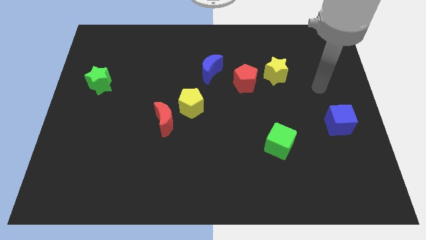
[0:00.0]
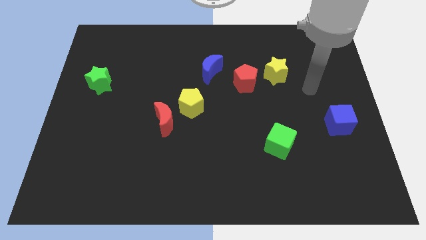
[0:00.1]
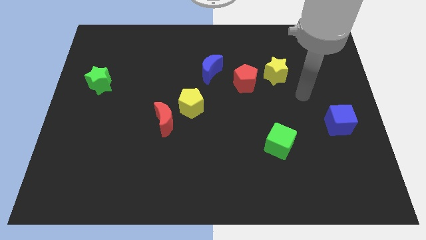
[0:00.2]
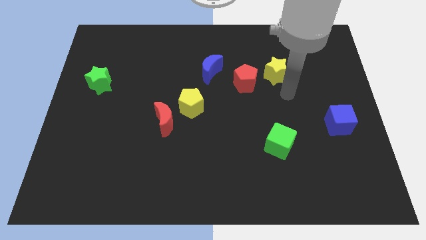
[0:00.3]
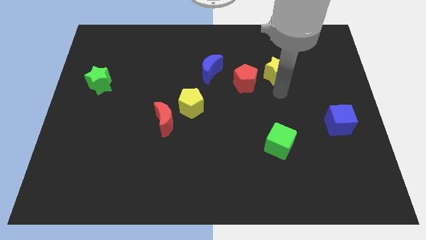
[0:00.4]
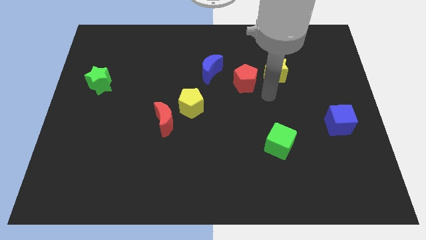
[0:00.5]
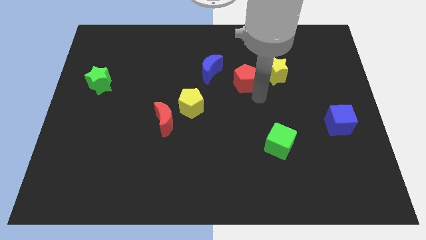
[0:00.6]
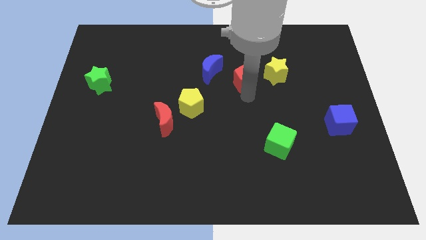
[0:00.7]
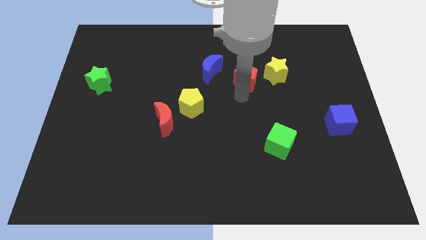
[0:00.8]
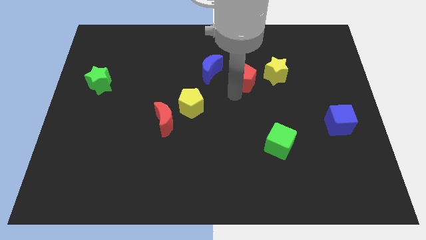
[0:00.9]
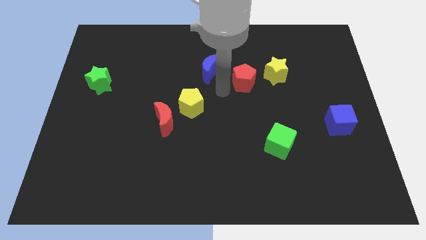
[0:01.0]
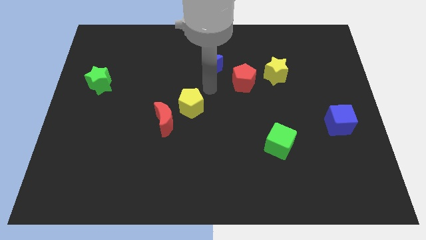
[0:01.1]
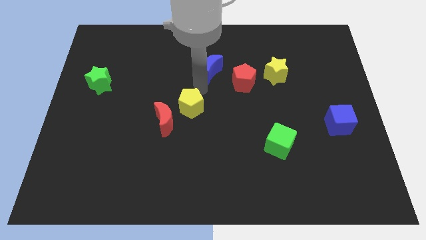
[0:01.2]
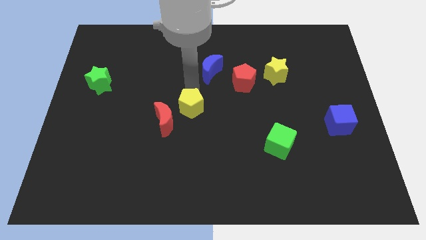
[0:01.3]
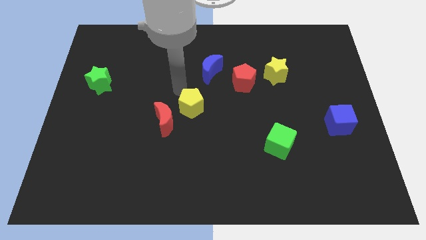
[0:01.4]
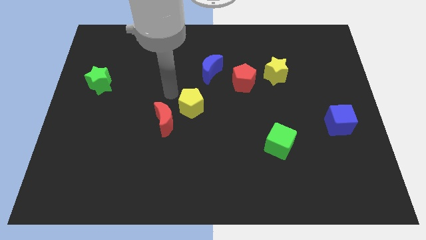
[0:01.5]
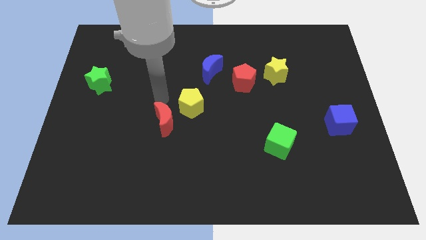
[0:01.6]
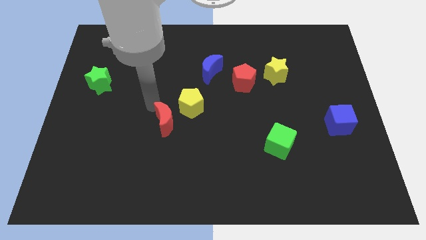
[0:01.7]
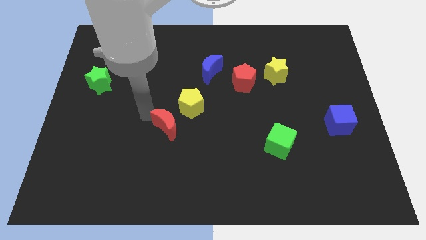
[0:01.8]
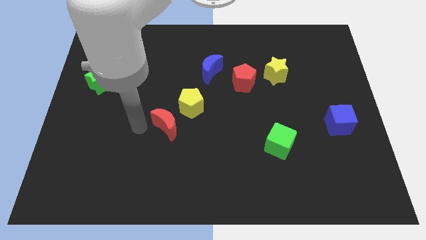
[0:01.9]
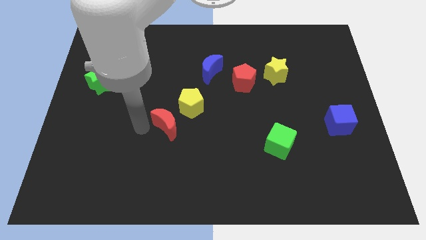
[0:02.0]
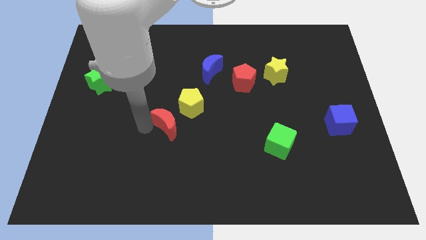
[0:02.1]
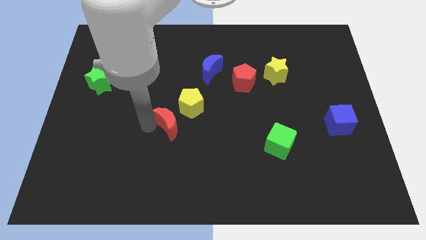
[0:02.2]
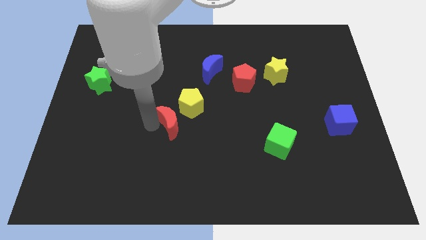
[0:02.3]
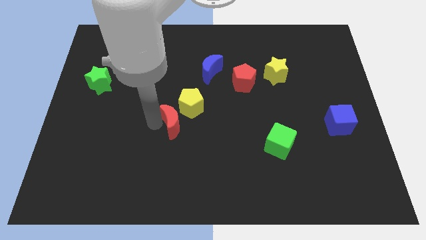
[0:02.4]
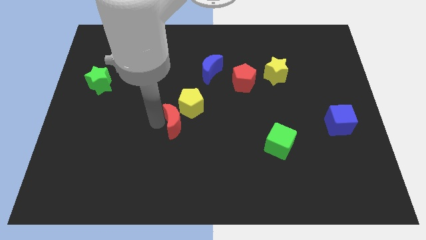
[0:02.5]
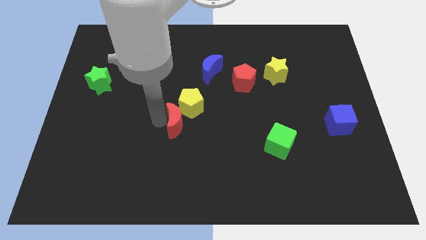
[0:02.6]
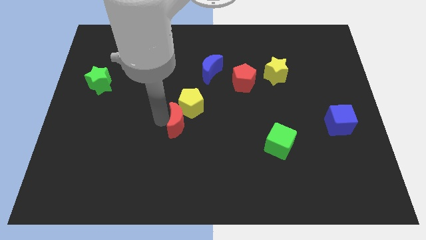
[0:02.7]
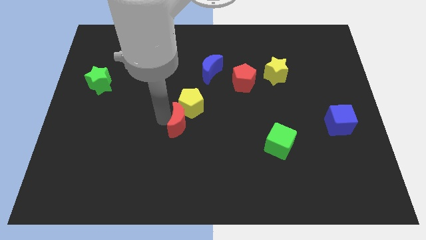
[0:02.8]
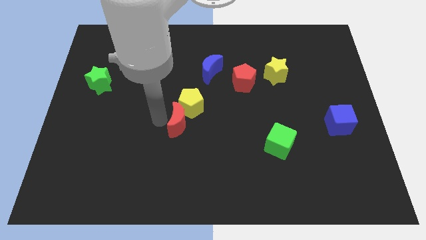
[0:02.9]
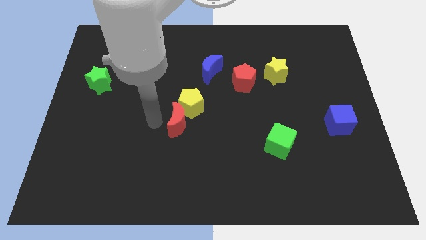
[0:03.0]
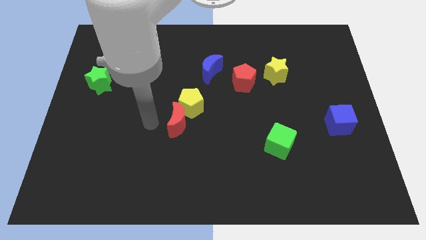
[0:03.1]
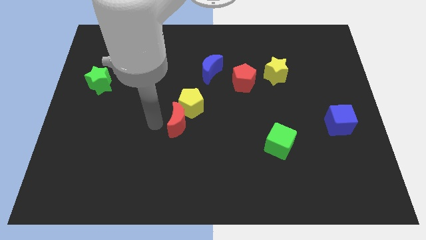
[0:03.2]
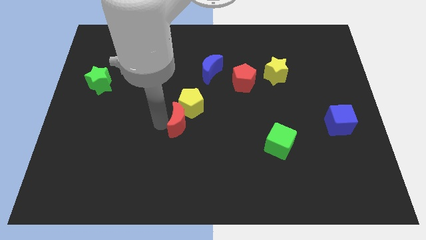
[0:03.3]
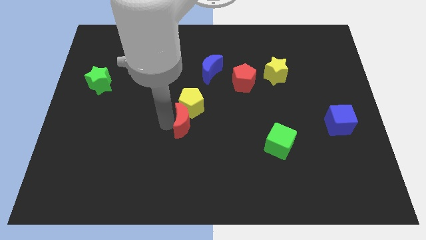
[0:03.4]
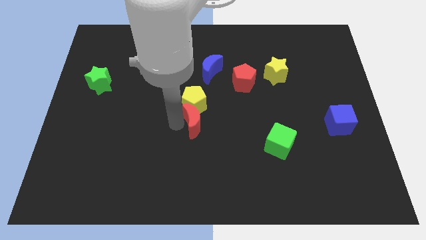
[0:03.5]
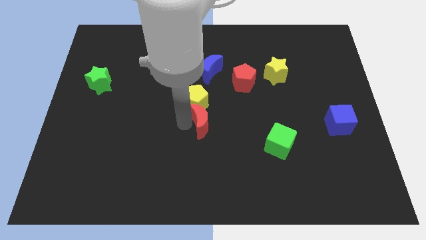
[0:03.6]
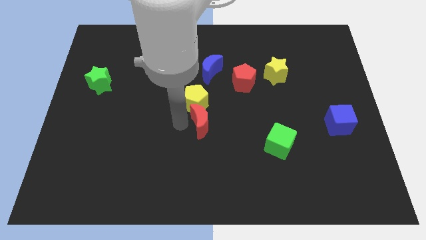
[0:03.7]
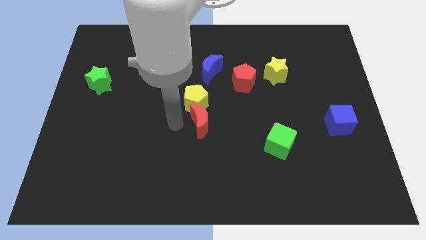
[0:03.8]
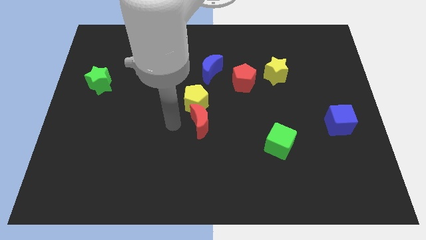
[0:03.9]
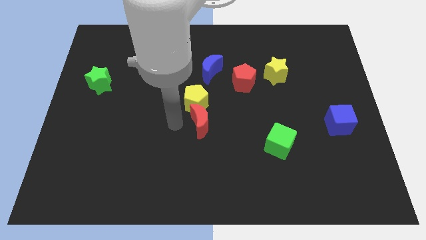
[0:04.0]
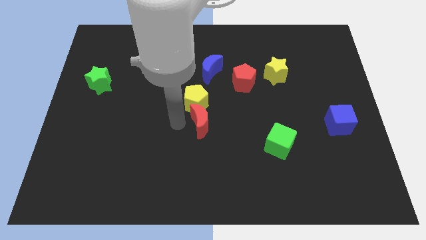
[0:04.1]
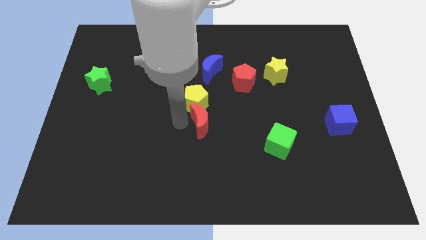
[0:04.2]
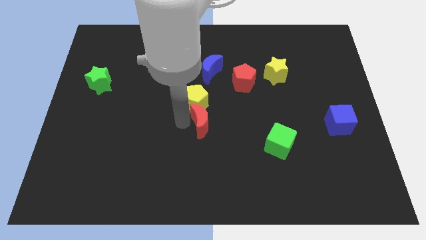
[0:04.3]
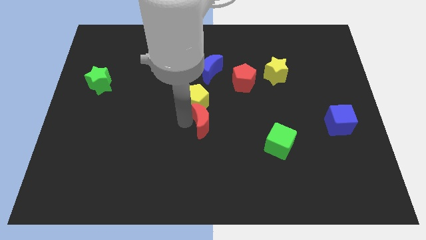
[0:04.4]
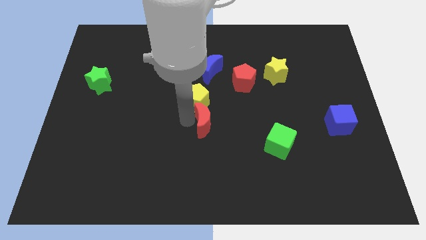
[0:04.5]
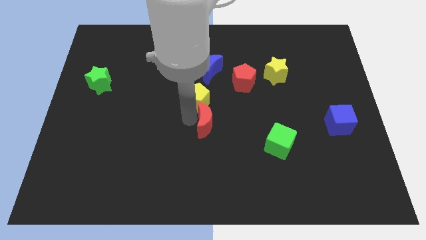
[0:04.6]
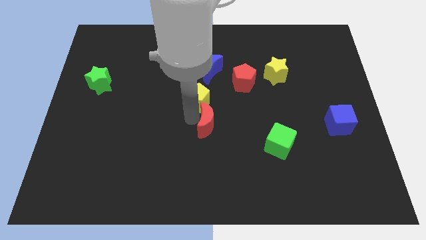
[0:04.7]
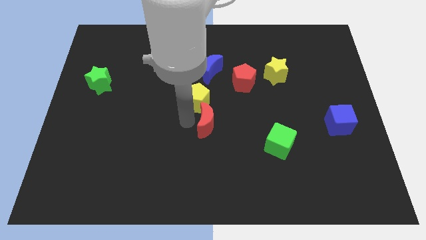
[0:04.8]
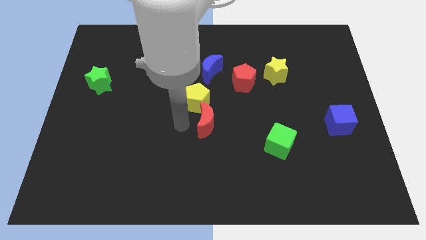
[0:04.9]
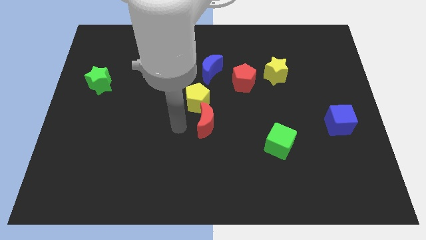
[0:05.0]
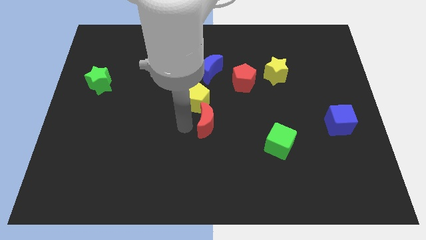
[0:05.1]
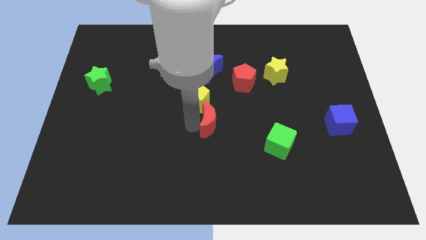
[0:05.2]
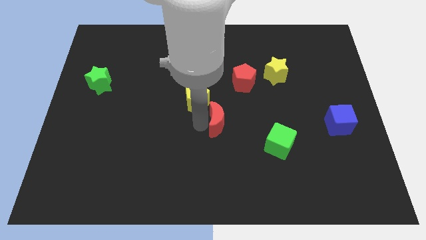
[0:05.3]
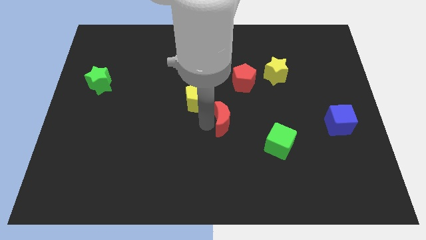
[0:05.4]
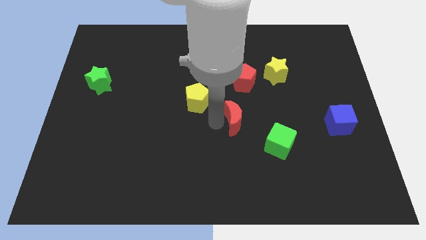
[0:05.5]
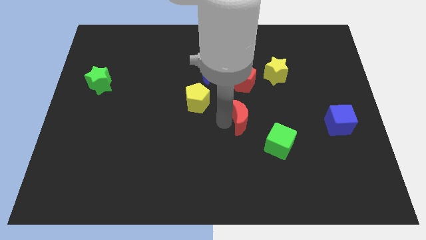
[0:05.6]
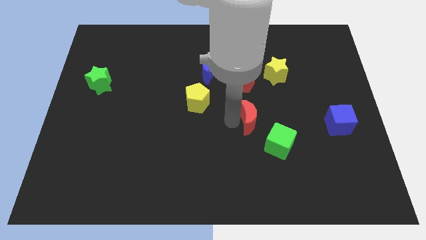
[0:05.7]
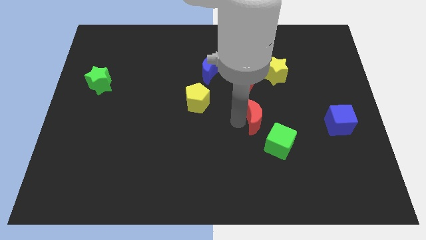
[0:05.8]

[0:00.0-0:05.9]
push the red moon right

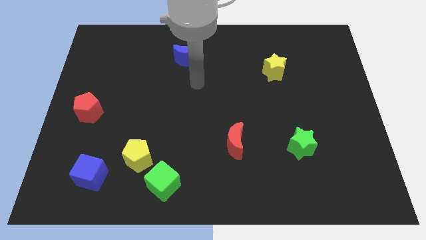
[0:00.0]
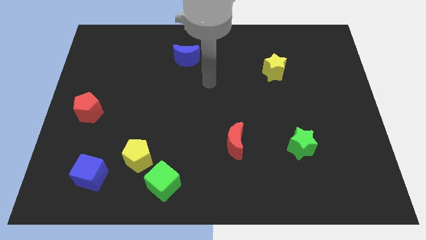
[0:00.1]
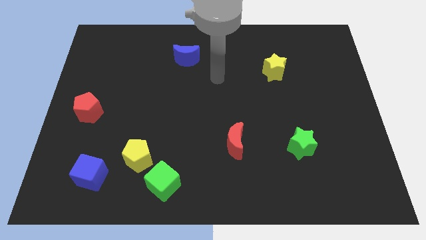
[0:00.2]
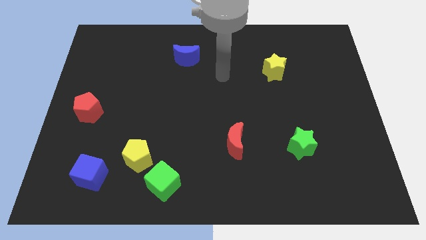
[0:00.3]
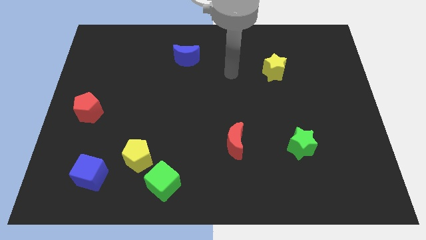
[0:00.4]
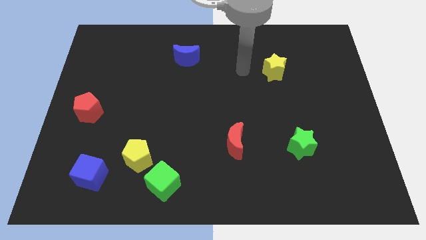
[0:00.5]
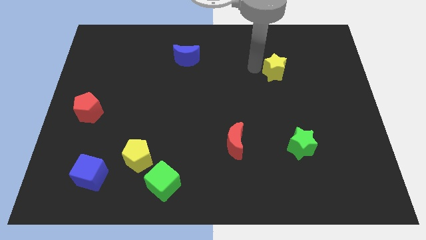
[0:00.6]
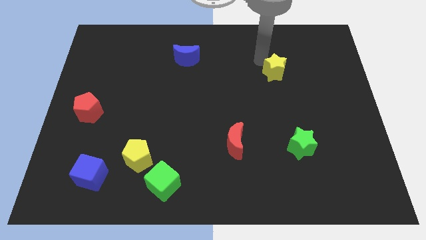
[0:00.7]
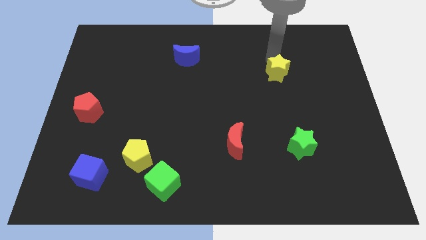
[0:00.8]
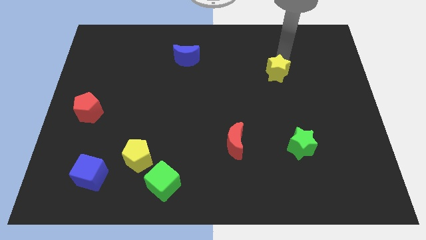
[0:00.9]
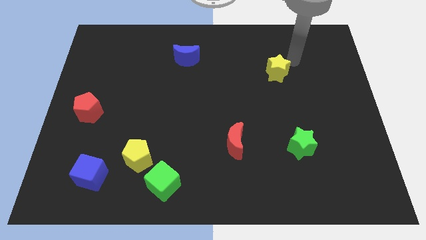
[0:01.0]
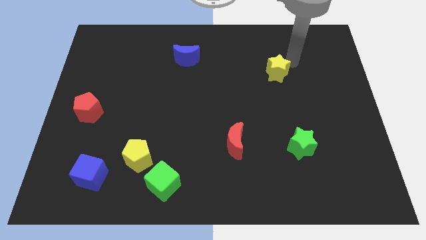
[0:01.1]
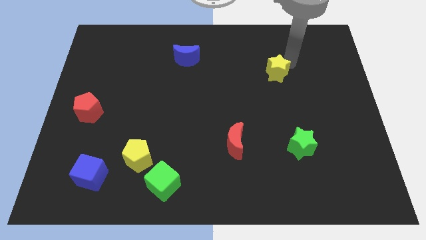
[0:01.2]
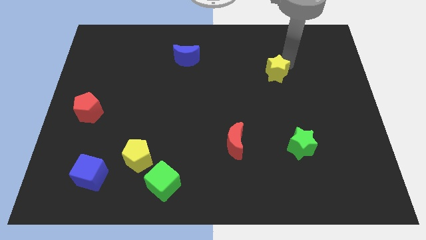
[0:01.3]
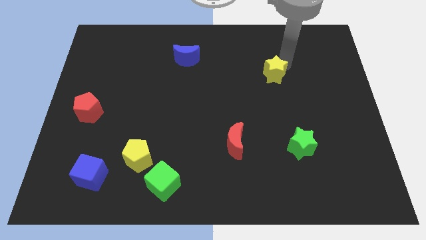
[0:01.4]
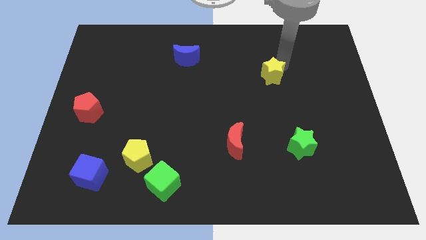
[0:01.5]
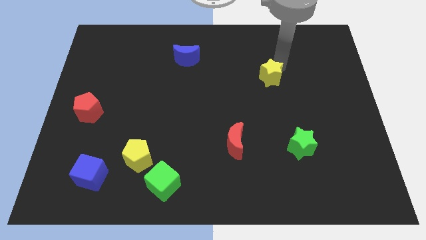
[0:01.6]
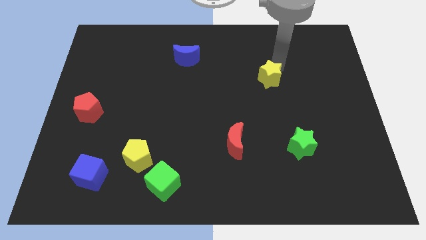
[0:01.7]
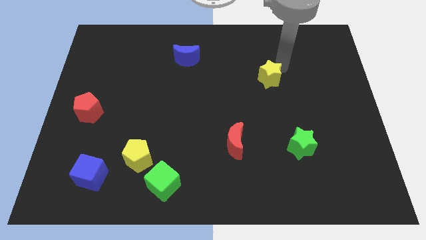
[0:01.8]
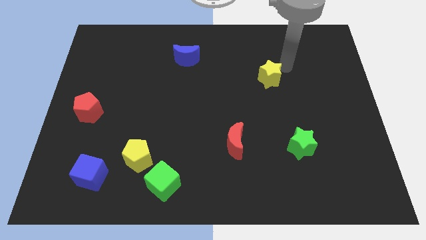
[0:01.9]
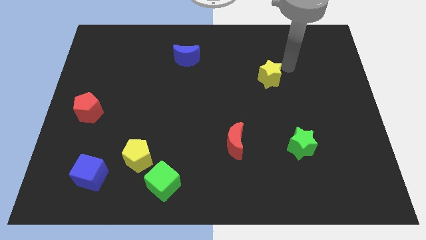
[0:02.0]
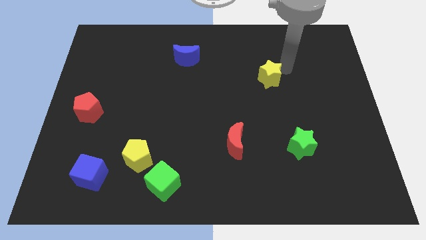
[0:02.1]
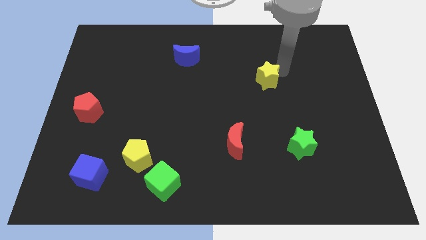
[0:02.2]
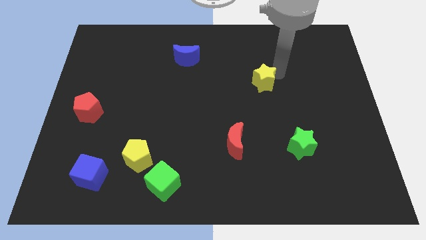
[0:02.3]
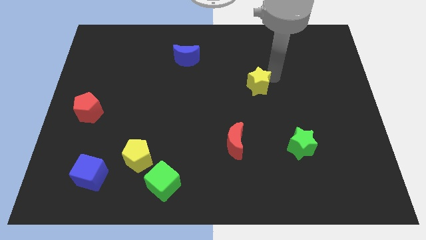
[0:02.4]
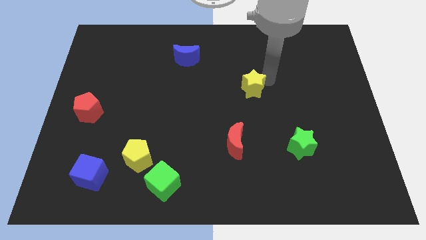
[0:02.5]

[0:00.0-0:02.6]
slightly push the yellow star down and left

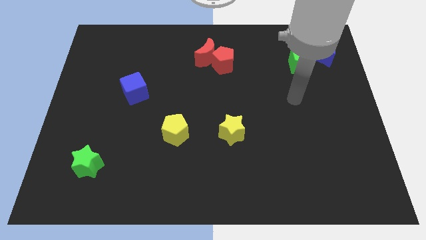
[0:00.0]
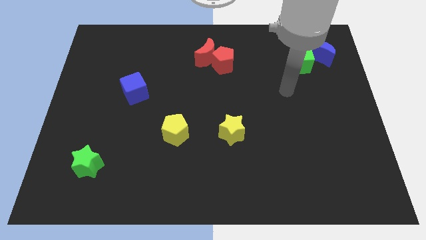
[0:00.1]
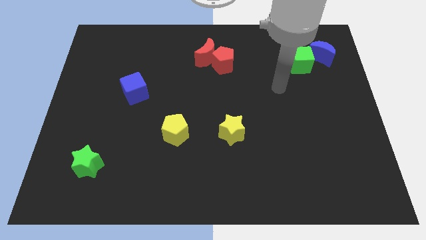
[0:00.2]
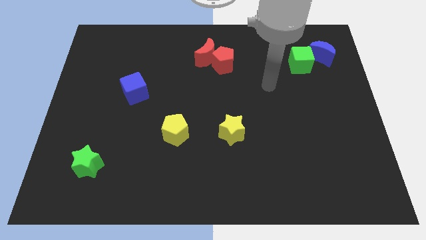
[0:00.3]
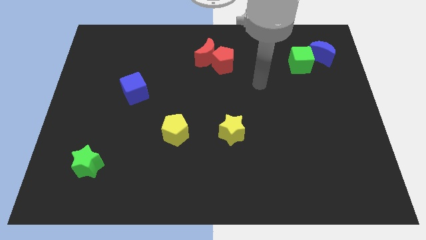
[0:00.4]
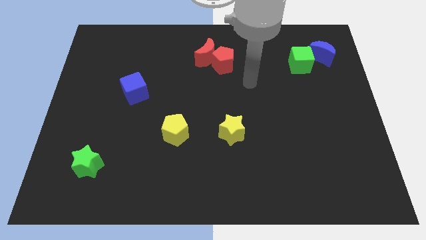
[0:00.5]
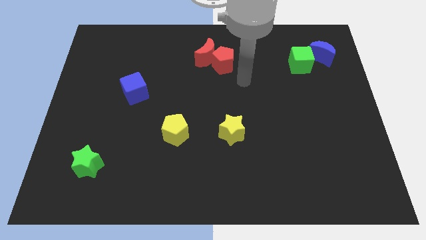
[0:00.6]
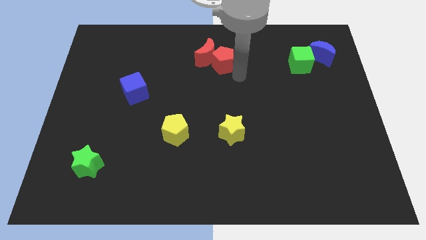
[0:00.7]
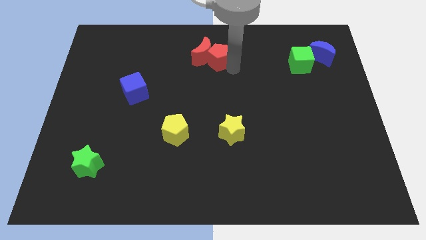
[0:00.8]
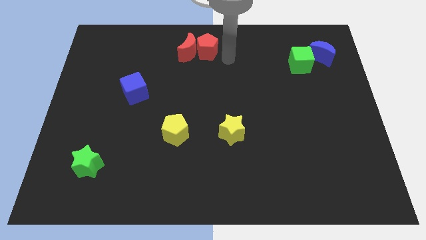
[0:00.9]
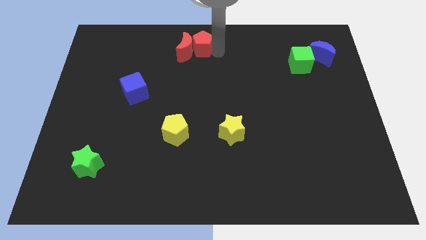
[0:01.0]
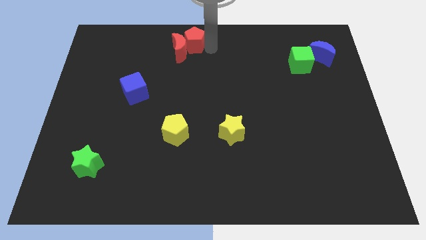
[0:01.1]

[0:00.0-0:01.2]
slightly move the red moon to the left
